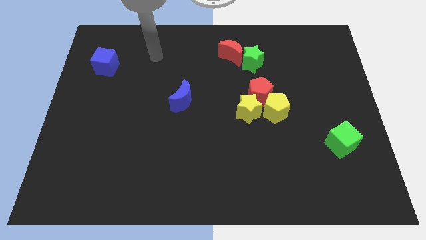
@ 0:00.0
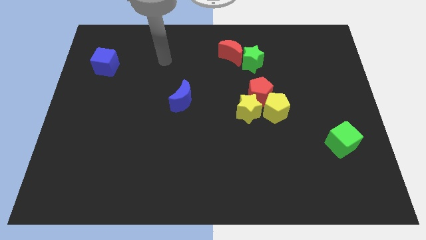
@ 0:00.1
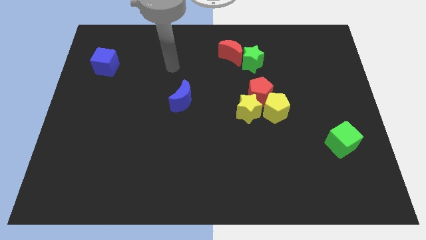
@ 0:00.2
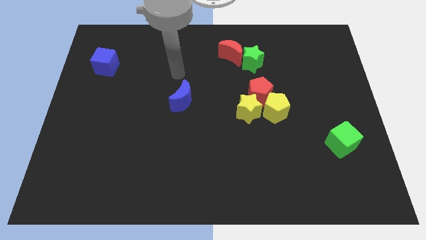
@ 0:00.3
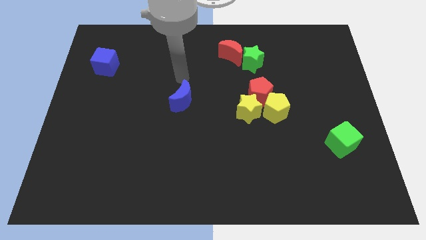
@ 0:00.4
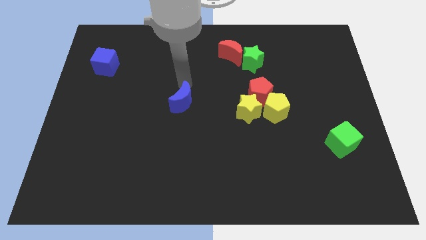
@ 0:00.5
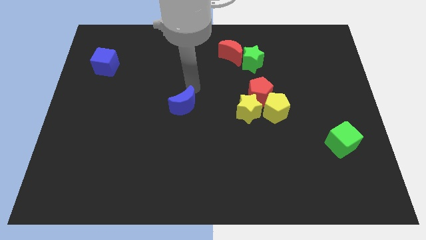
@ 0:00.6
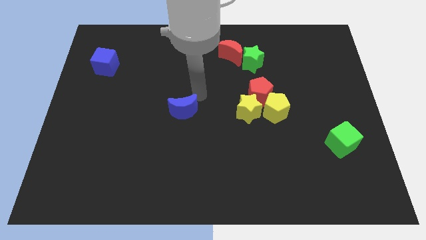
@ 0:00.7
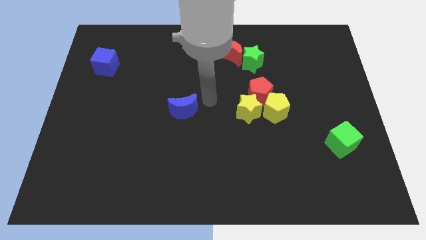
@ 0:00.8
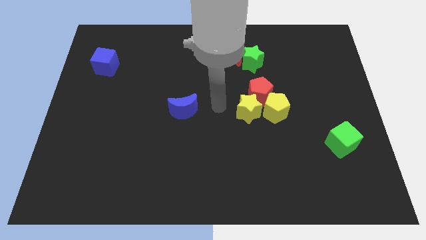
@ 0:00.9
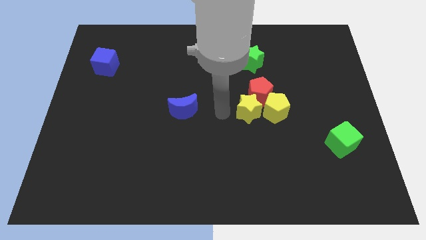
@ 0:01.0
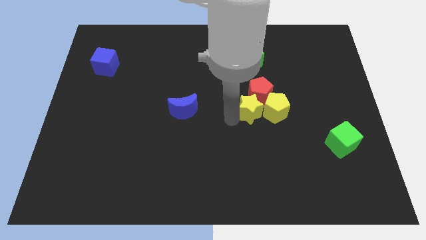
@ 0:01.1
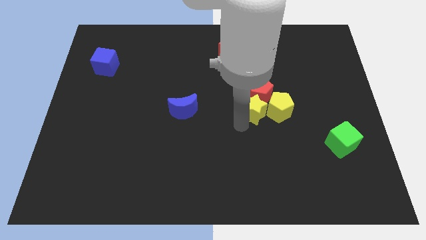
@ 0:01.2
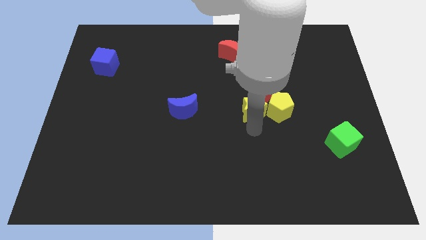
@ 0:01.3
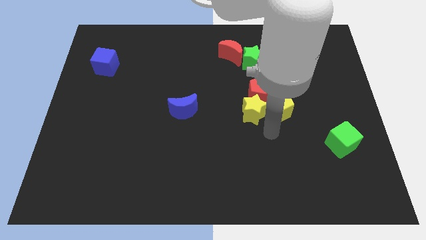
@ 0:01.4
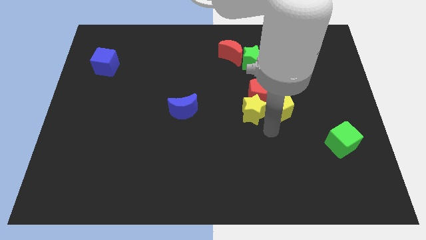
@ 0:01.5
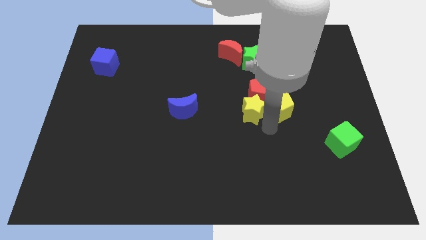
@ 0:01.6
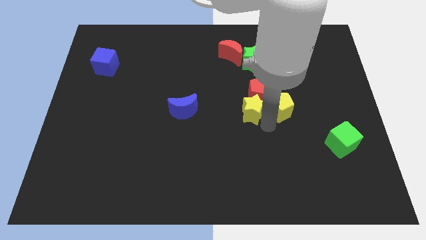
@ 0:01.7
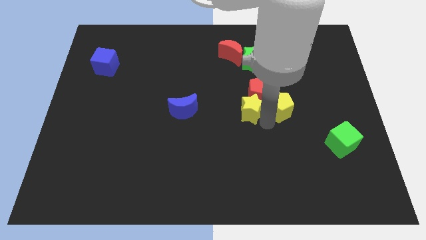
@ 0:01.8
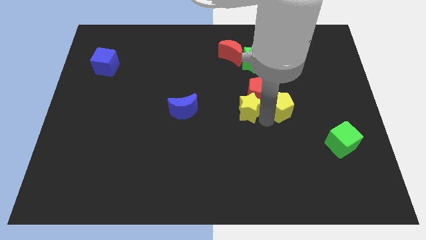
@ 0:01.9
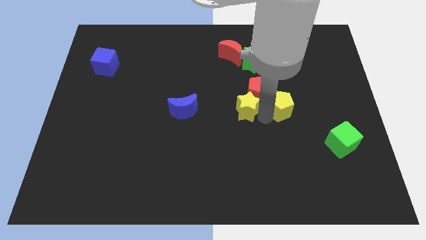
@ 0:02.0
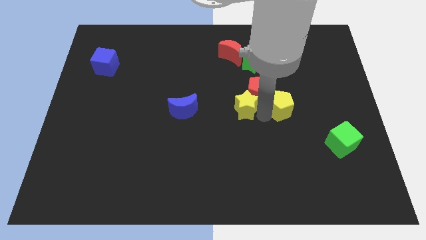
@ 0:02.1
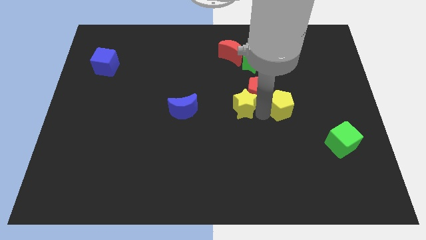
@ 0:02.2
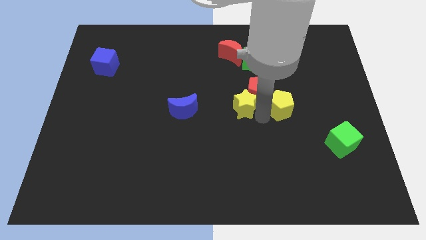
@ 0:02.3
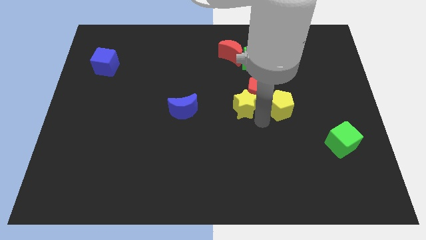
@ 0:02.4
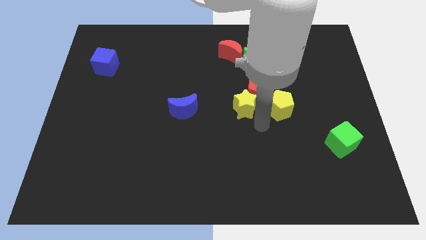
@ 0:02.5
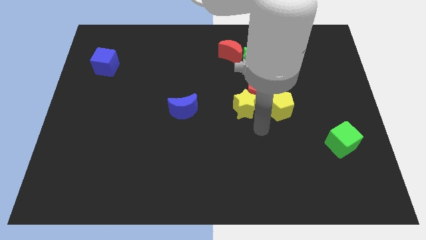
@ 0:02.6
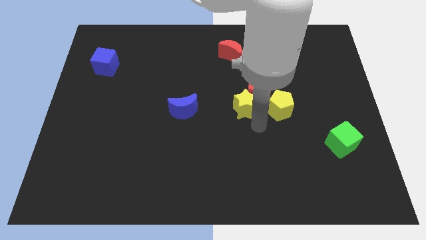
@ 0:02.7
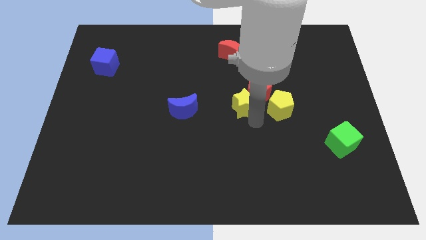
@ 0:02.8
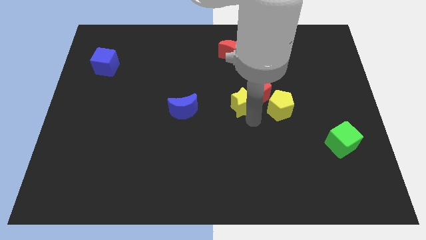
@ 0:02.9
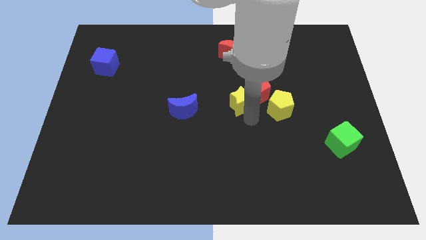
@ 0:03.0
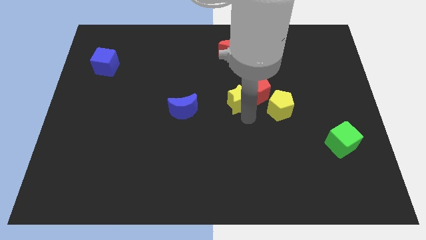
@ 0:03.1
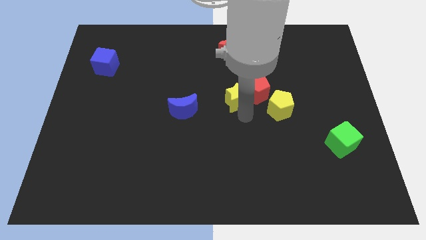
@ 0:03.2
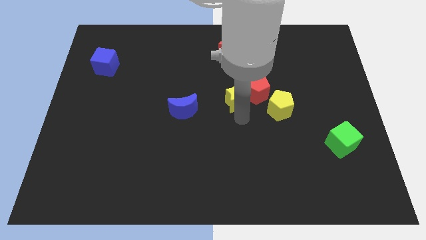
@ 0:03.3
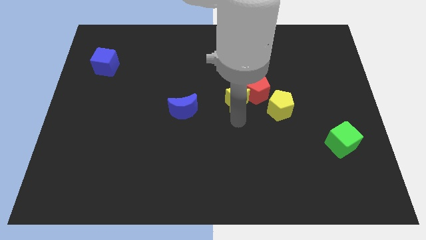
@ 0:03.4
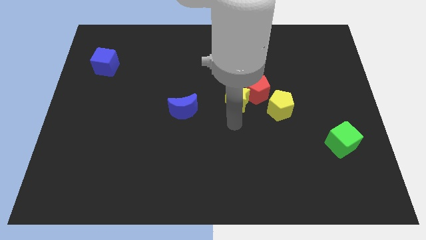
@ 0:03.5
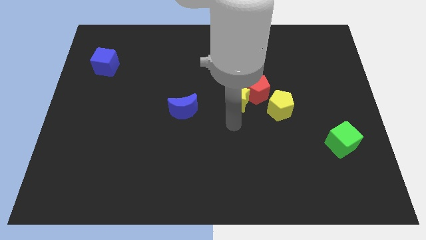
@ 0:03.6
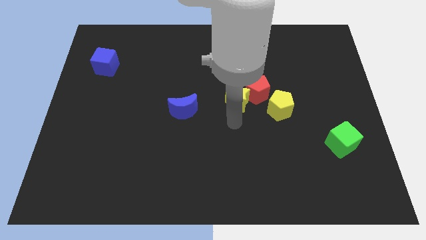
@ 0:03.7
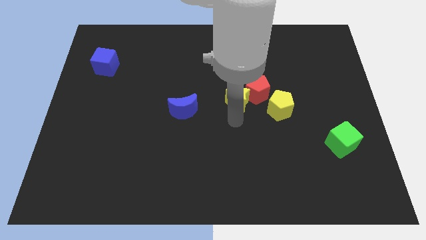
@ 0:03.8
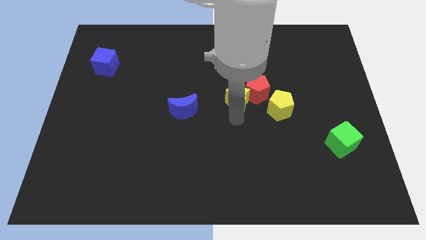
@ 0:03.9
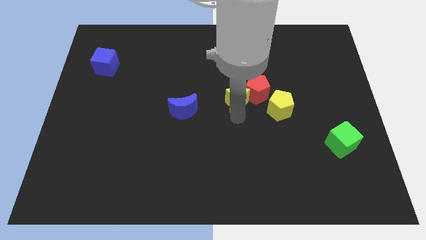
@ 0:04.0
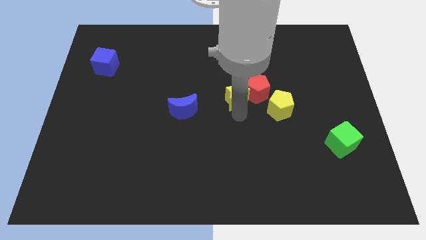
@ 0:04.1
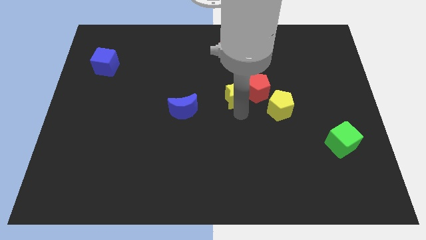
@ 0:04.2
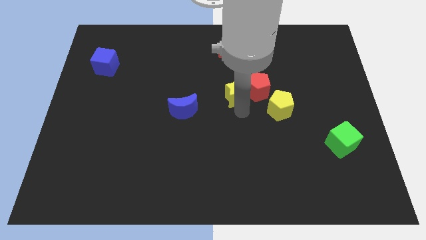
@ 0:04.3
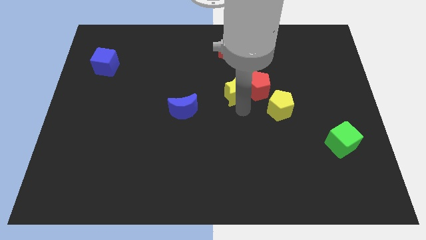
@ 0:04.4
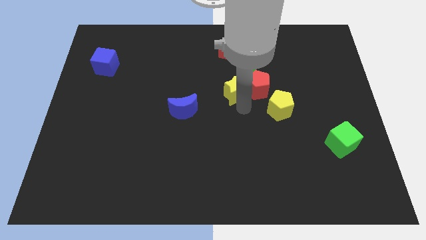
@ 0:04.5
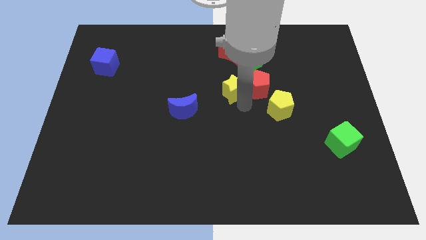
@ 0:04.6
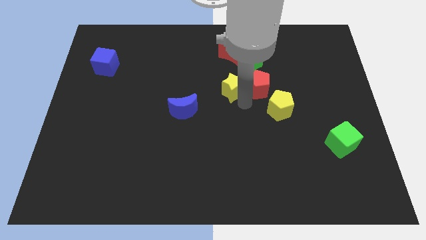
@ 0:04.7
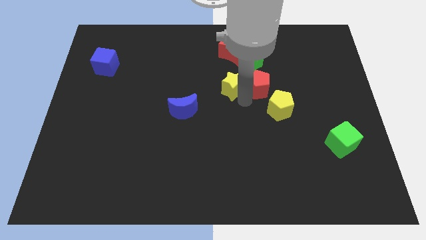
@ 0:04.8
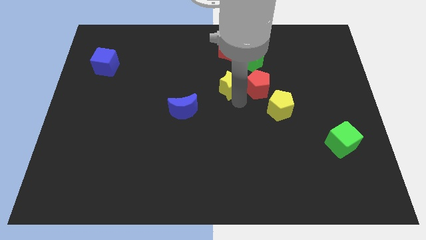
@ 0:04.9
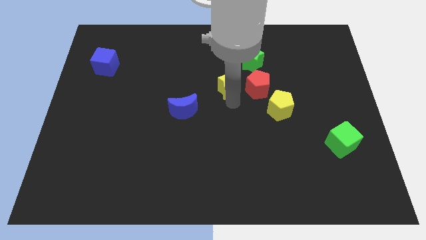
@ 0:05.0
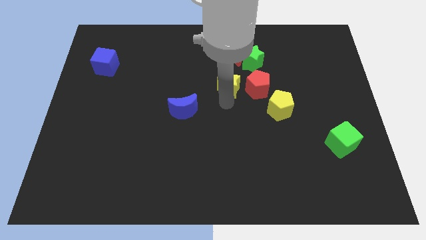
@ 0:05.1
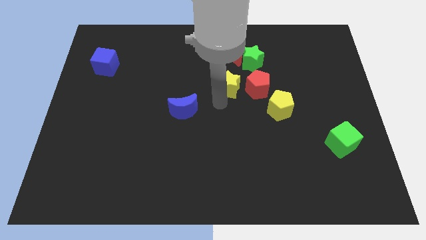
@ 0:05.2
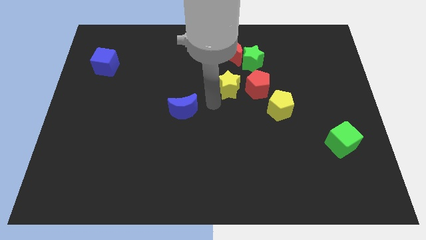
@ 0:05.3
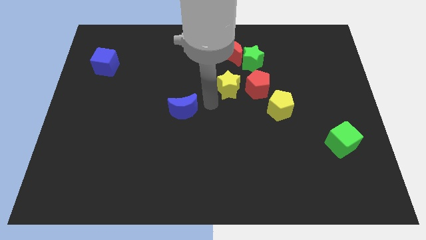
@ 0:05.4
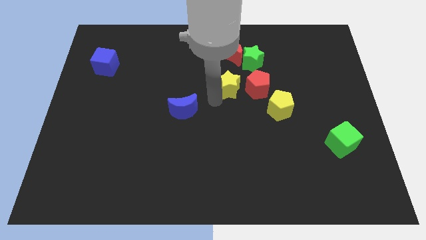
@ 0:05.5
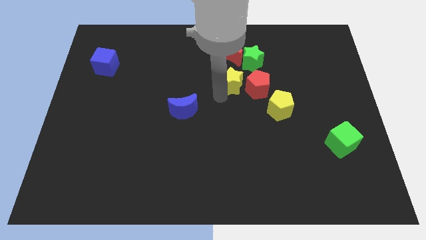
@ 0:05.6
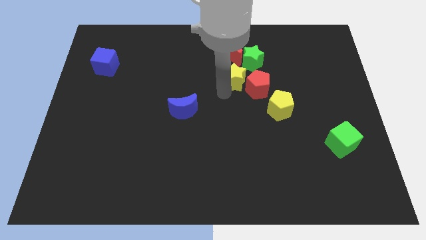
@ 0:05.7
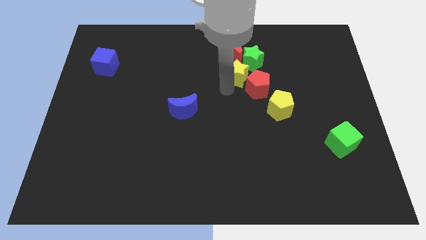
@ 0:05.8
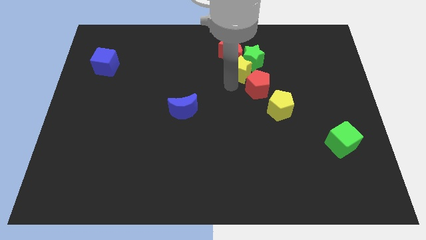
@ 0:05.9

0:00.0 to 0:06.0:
move the yellow star towards the green star

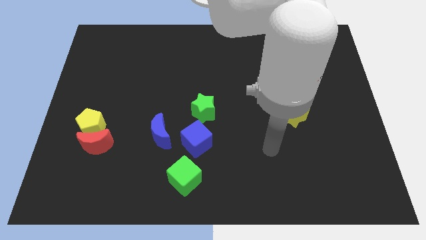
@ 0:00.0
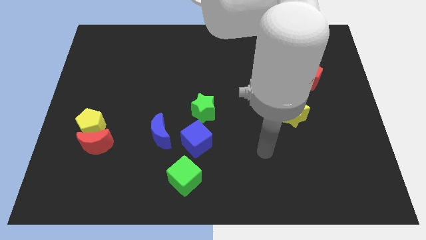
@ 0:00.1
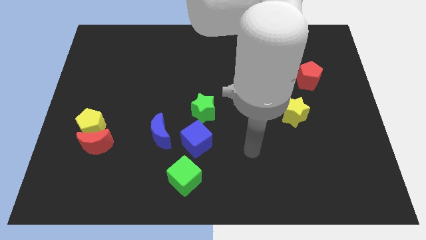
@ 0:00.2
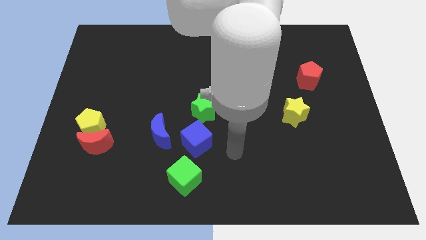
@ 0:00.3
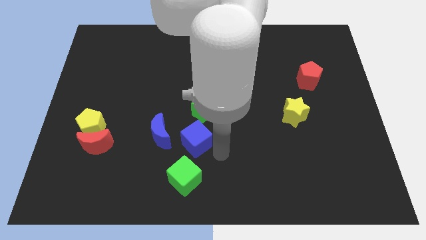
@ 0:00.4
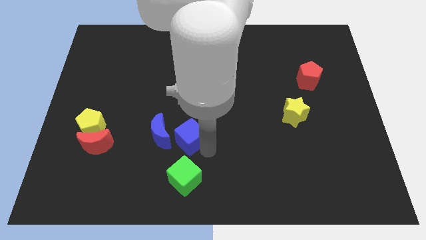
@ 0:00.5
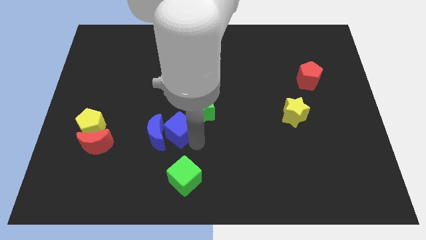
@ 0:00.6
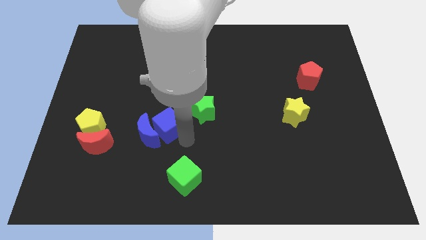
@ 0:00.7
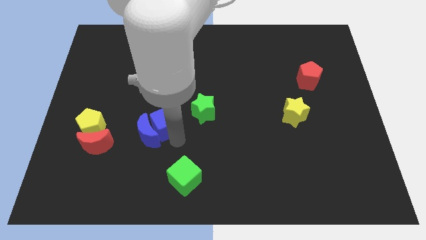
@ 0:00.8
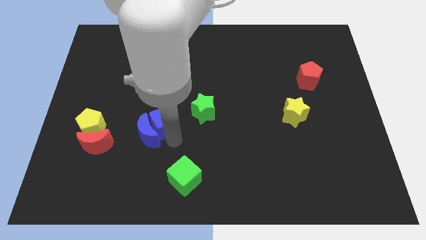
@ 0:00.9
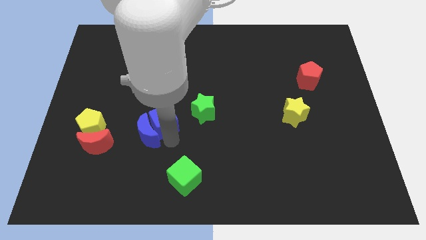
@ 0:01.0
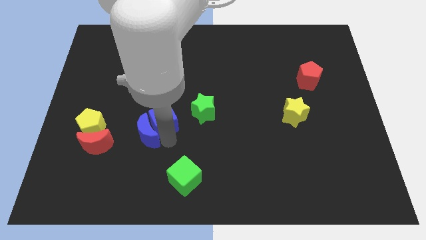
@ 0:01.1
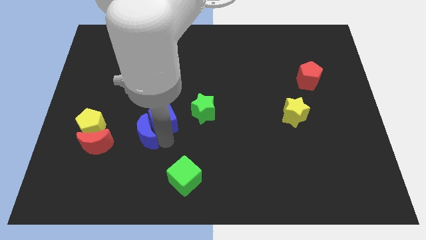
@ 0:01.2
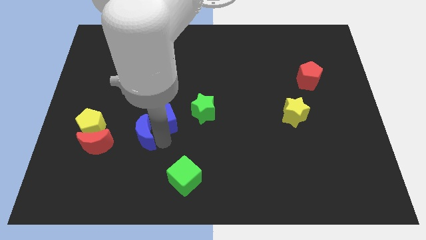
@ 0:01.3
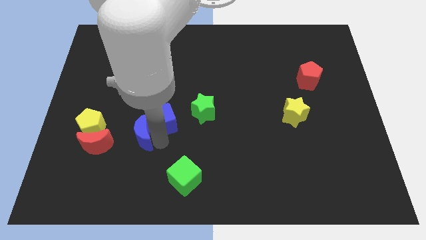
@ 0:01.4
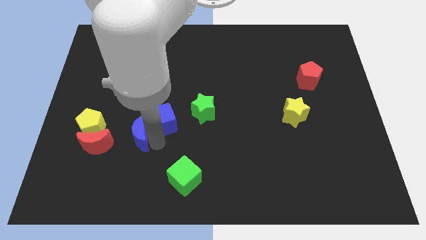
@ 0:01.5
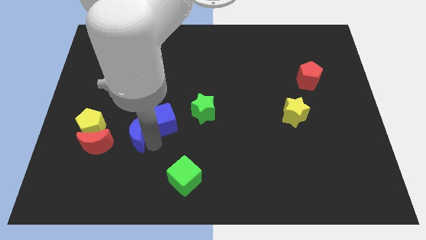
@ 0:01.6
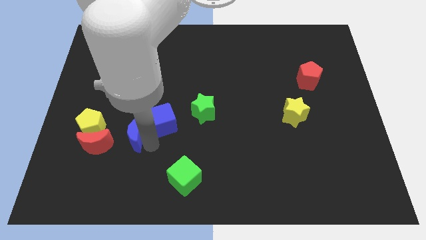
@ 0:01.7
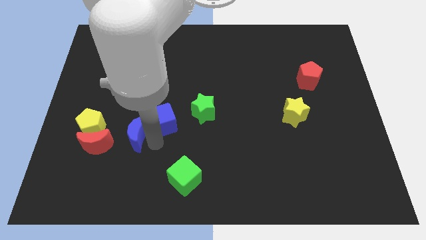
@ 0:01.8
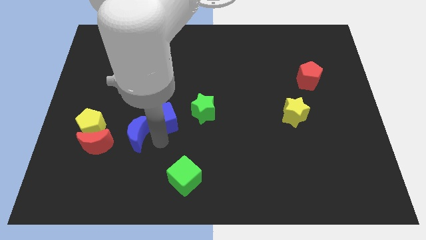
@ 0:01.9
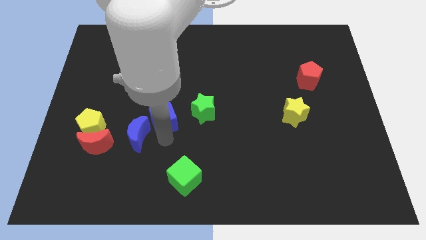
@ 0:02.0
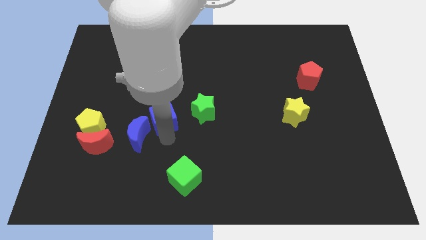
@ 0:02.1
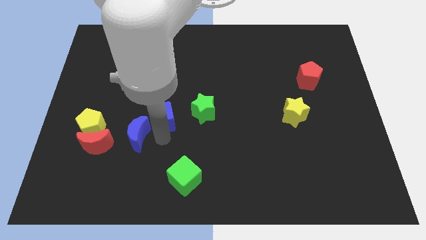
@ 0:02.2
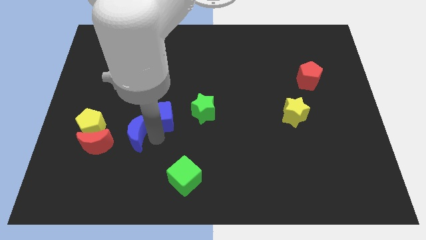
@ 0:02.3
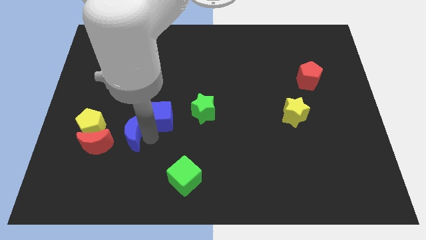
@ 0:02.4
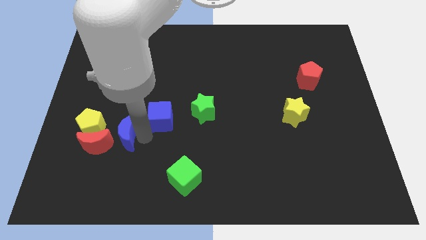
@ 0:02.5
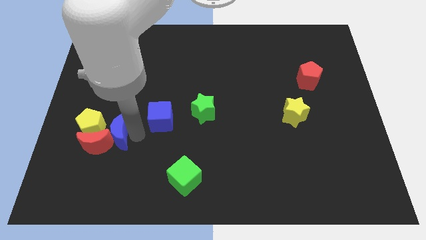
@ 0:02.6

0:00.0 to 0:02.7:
move the blue moon next to the red moon
